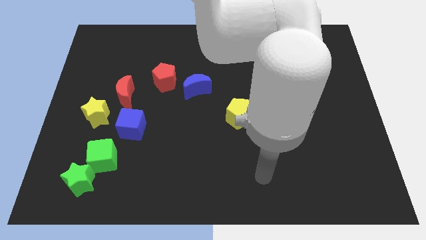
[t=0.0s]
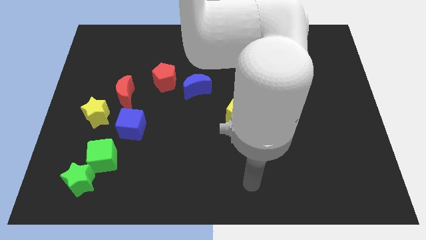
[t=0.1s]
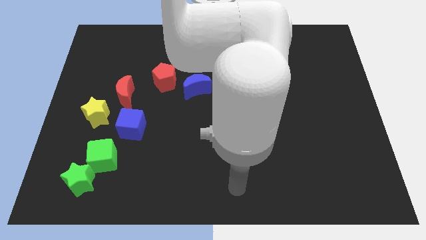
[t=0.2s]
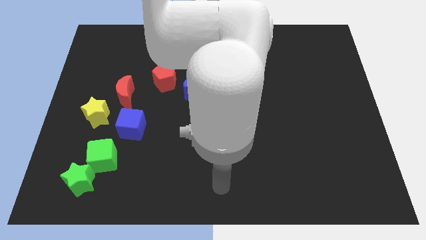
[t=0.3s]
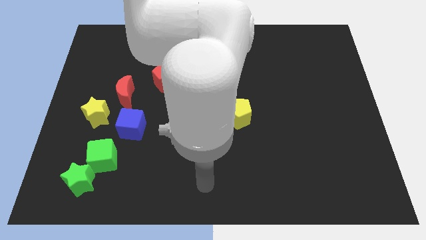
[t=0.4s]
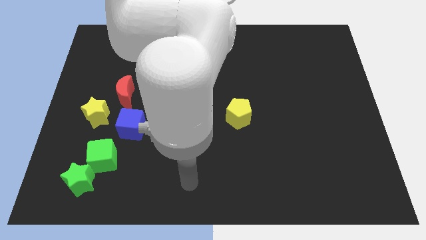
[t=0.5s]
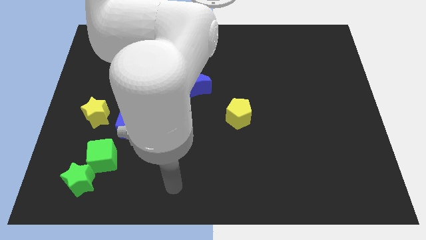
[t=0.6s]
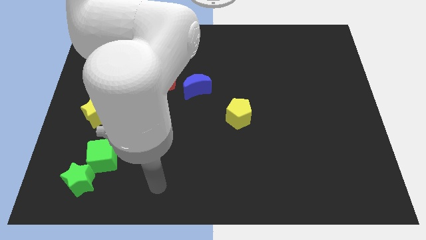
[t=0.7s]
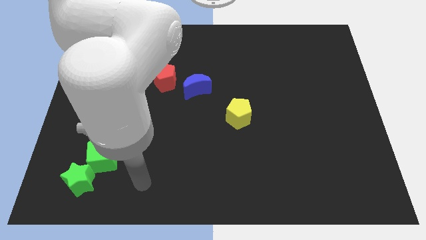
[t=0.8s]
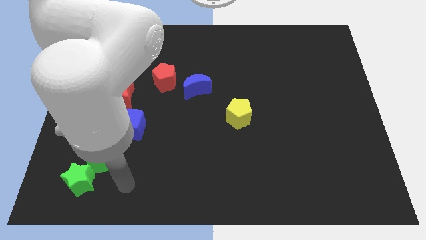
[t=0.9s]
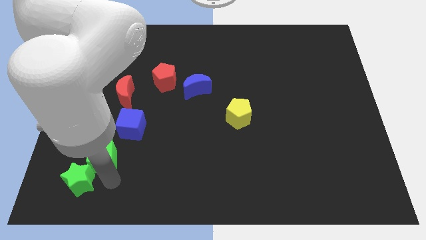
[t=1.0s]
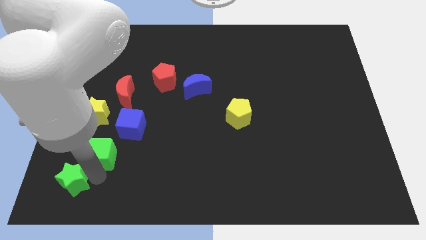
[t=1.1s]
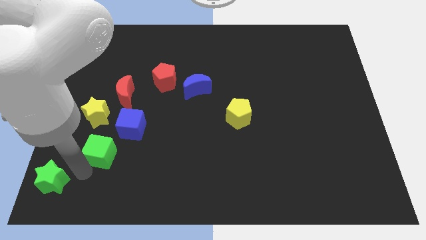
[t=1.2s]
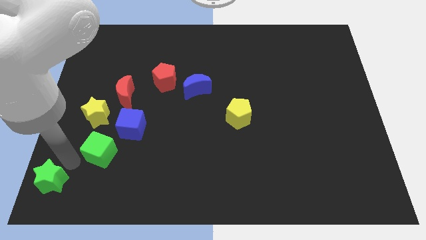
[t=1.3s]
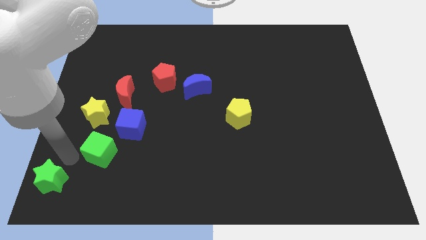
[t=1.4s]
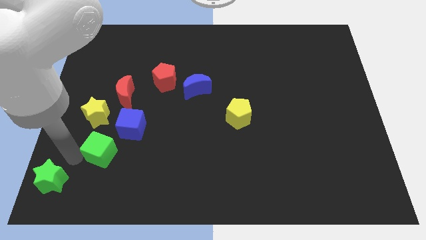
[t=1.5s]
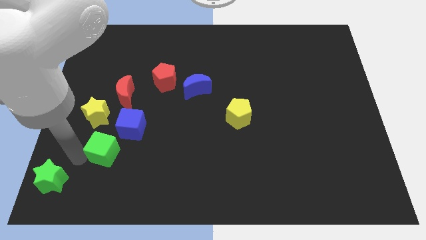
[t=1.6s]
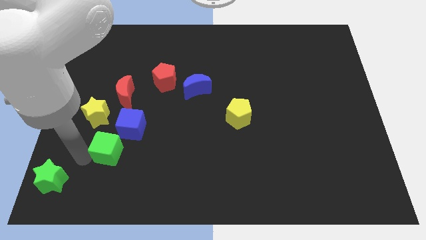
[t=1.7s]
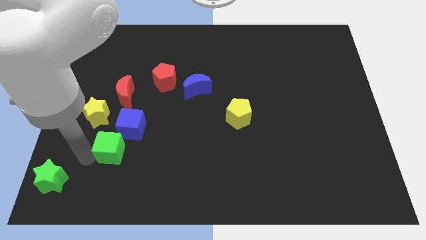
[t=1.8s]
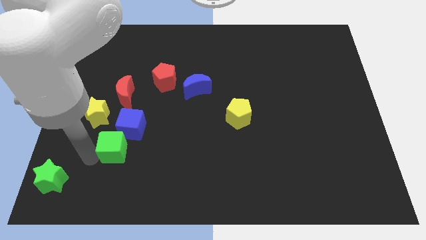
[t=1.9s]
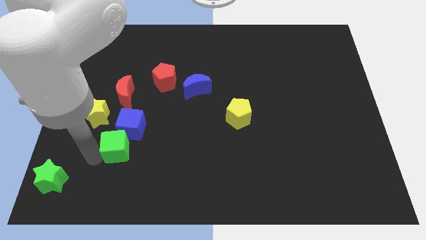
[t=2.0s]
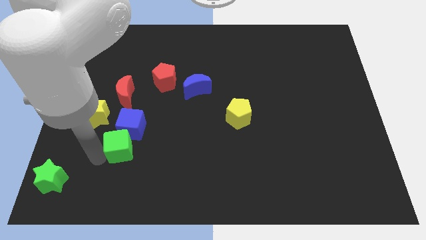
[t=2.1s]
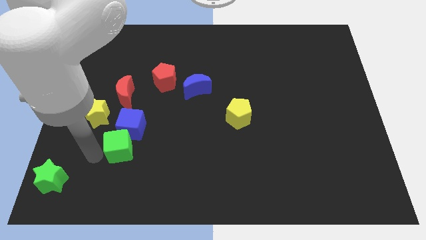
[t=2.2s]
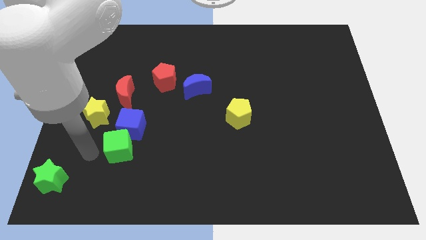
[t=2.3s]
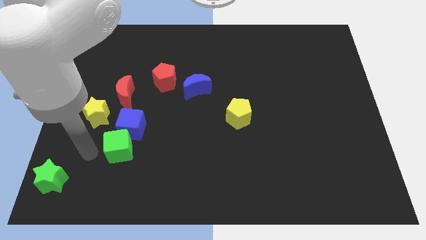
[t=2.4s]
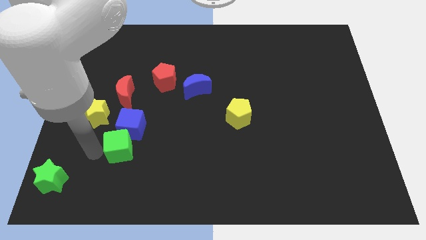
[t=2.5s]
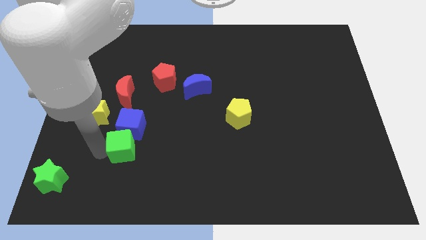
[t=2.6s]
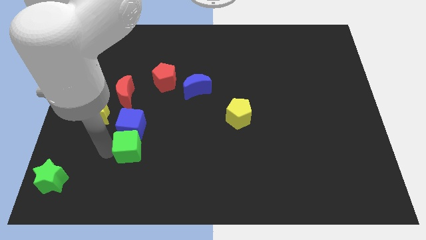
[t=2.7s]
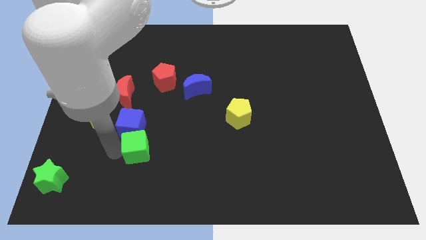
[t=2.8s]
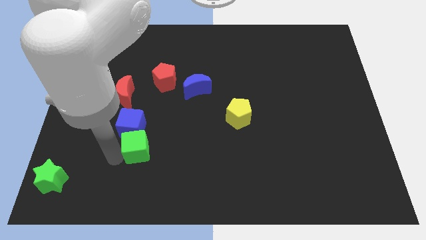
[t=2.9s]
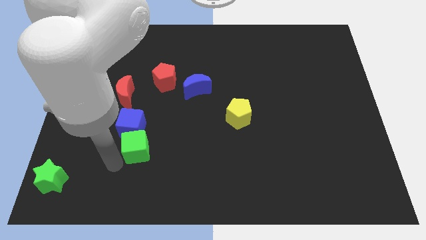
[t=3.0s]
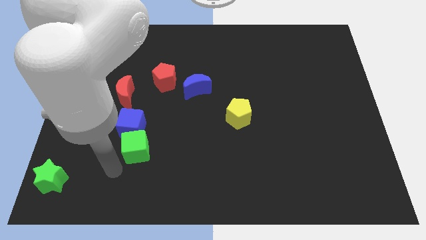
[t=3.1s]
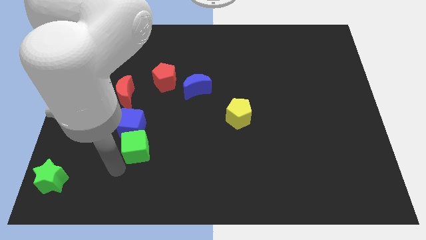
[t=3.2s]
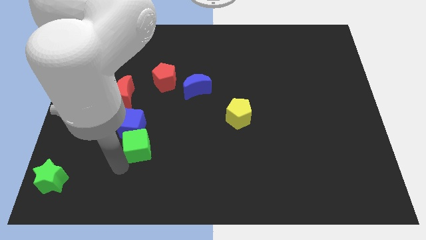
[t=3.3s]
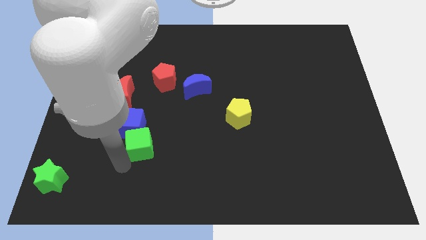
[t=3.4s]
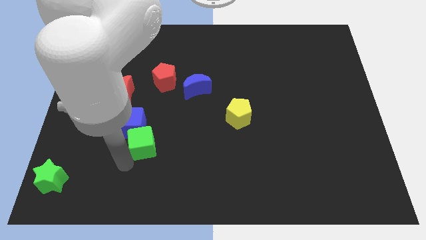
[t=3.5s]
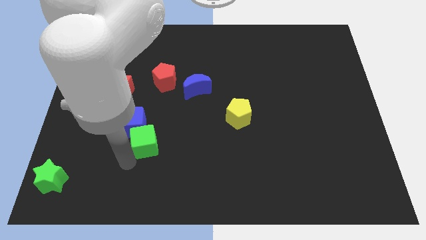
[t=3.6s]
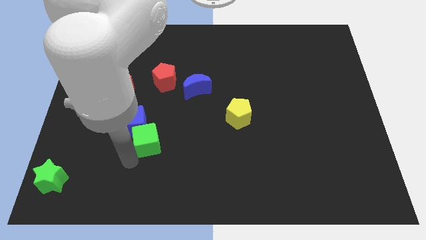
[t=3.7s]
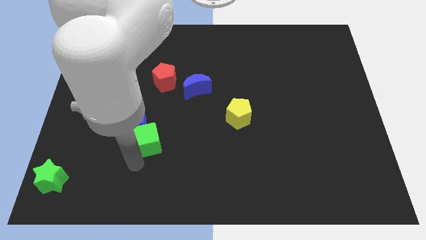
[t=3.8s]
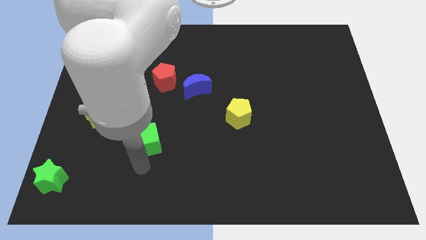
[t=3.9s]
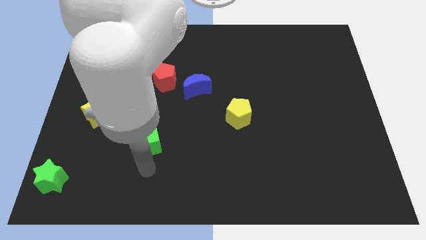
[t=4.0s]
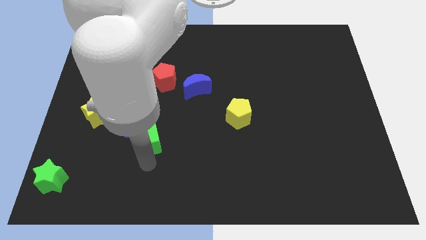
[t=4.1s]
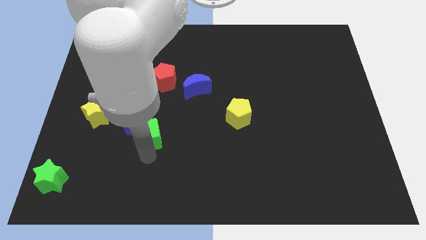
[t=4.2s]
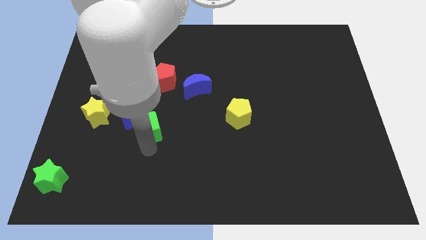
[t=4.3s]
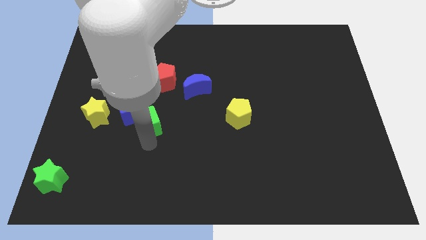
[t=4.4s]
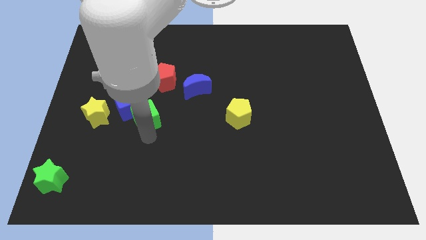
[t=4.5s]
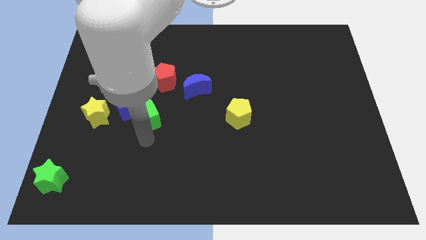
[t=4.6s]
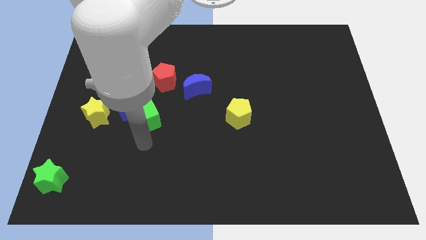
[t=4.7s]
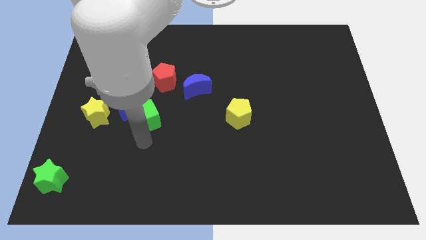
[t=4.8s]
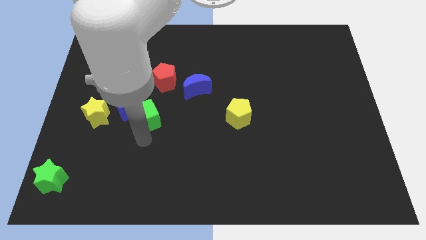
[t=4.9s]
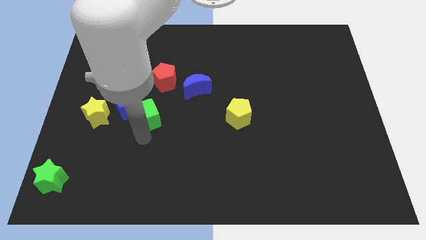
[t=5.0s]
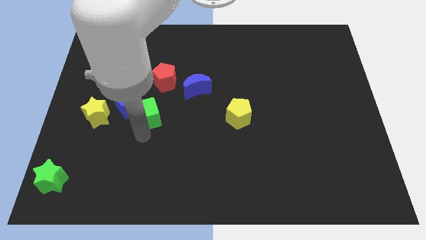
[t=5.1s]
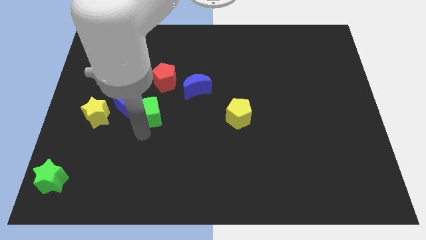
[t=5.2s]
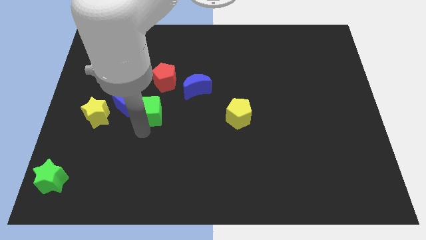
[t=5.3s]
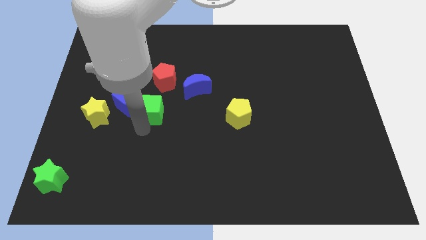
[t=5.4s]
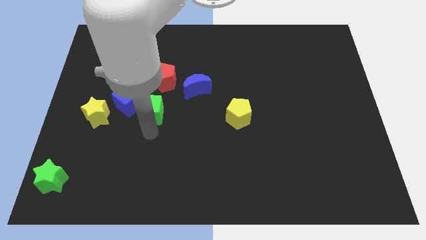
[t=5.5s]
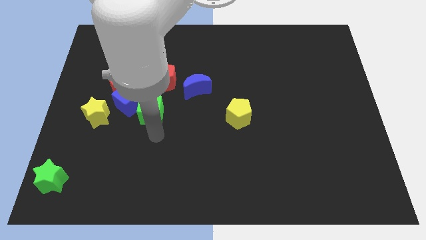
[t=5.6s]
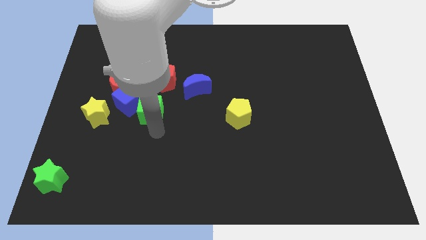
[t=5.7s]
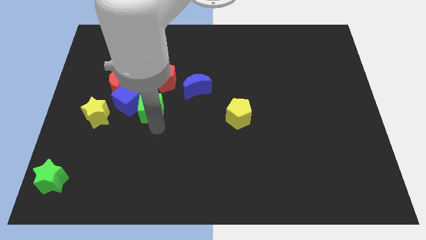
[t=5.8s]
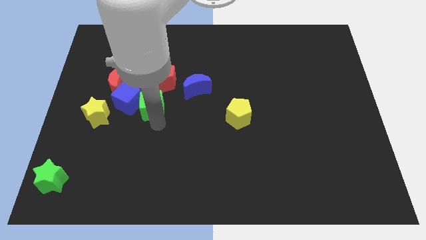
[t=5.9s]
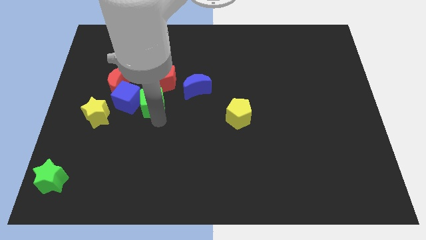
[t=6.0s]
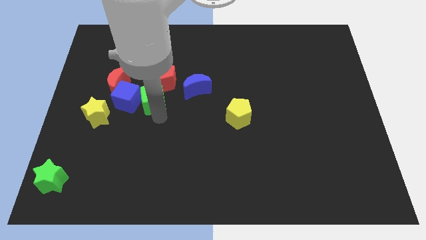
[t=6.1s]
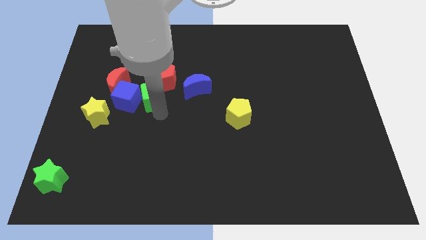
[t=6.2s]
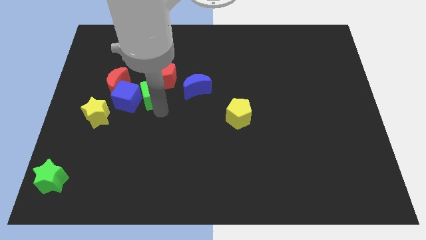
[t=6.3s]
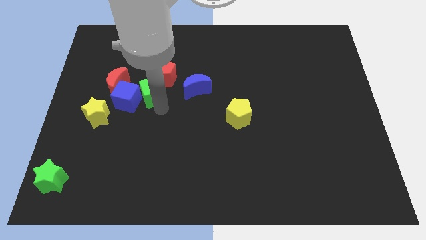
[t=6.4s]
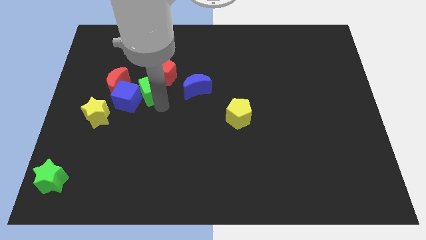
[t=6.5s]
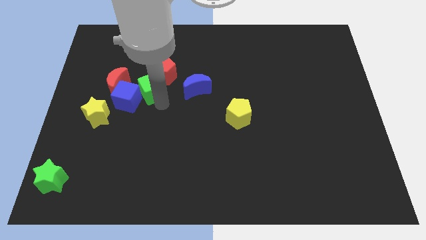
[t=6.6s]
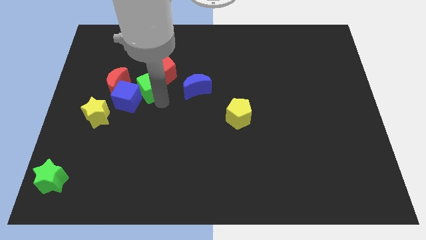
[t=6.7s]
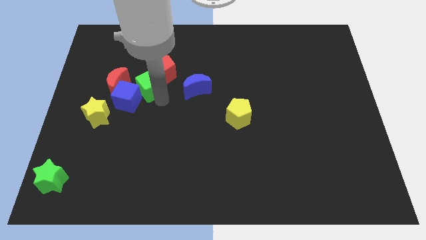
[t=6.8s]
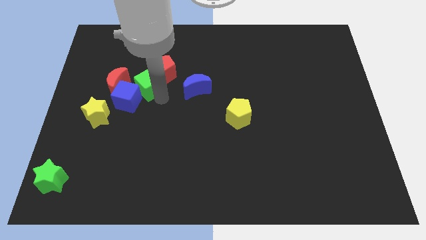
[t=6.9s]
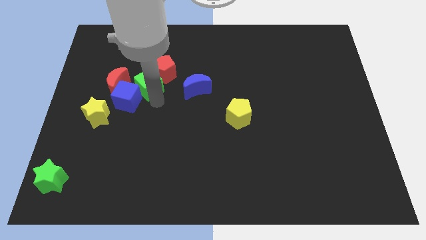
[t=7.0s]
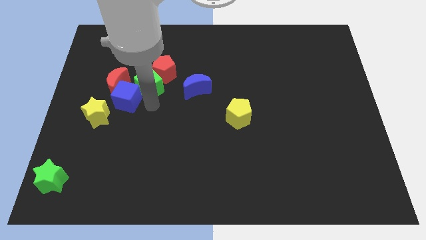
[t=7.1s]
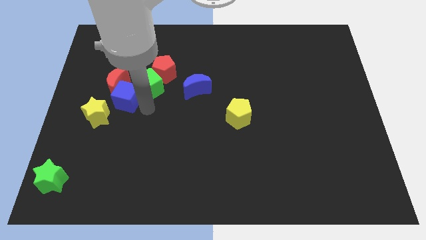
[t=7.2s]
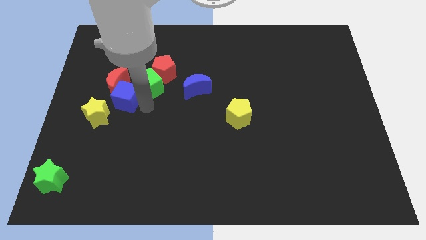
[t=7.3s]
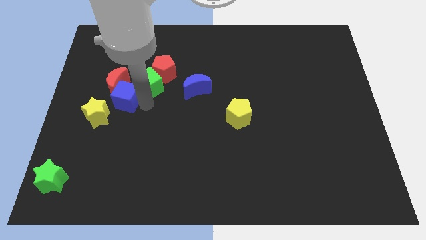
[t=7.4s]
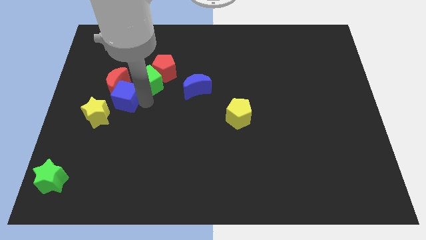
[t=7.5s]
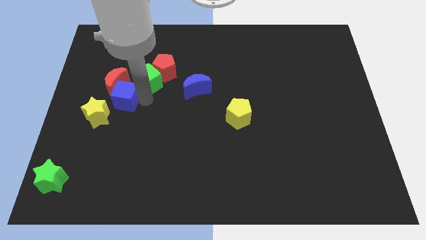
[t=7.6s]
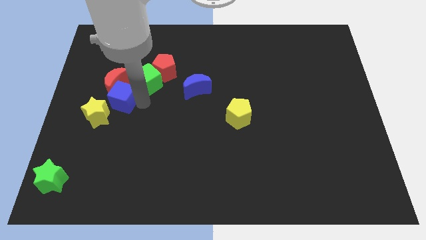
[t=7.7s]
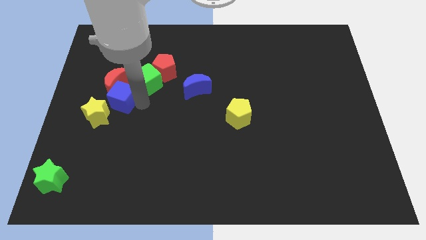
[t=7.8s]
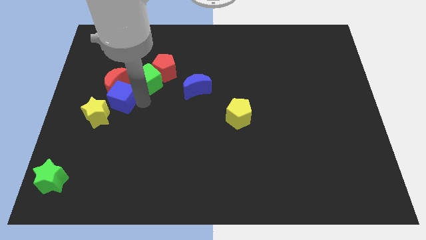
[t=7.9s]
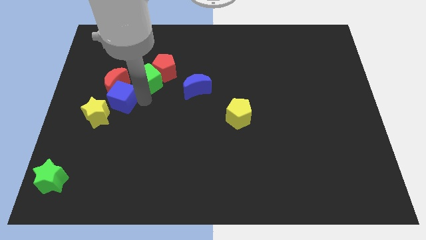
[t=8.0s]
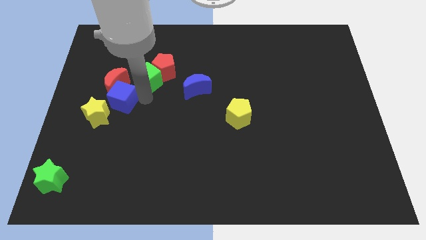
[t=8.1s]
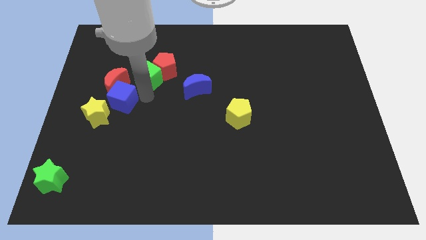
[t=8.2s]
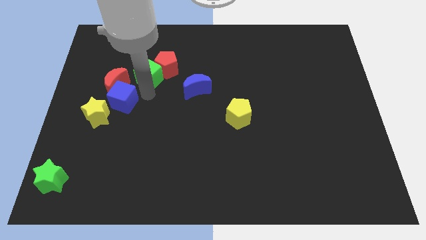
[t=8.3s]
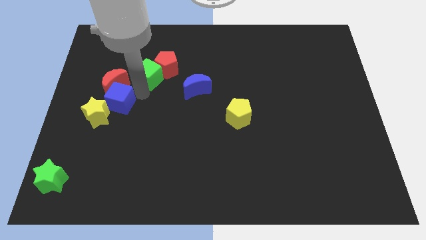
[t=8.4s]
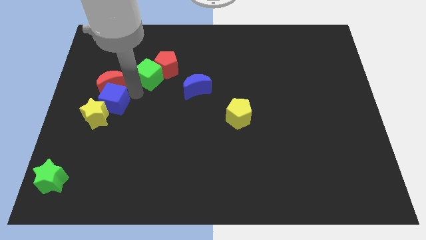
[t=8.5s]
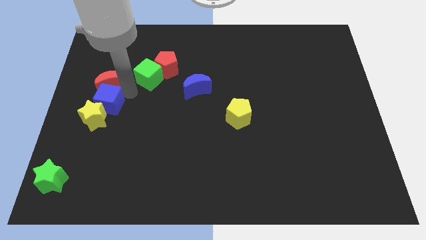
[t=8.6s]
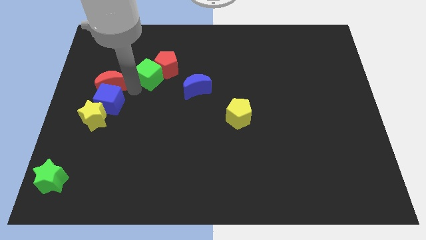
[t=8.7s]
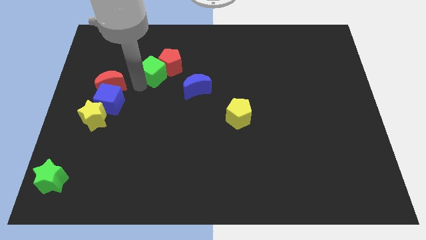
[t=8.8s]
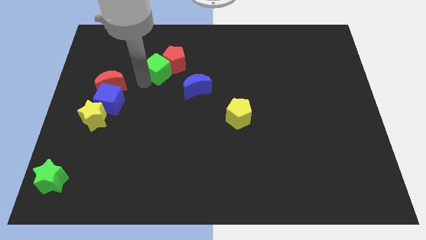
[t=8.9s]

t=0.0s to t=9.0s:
slide the green cube to the top left side of the blue moon
